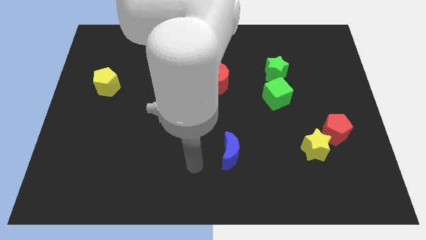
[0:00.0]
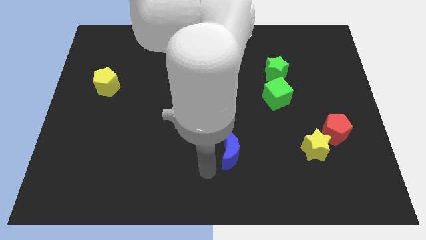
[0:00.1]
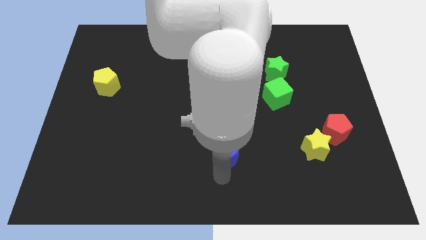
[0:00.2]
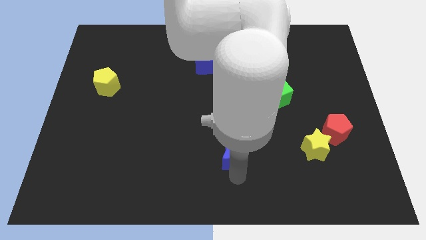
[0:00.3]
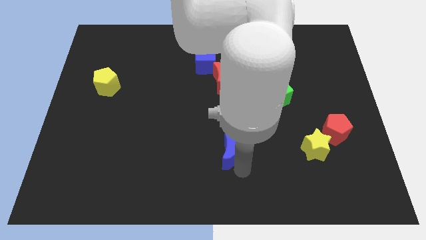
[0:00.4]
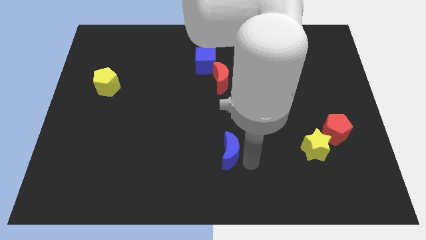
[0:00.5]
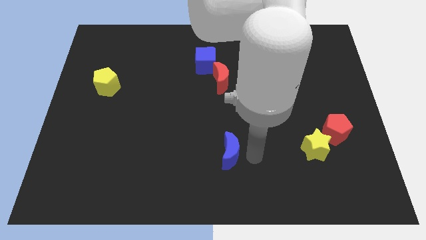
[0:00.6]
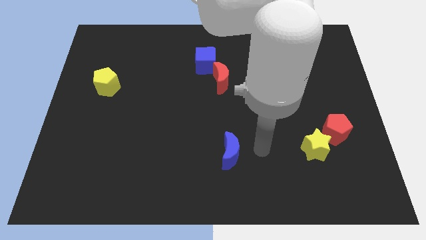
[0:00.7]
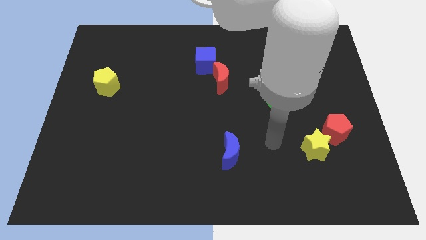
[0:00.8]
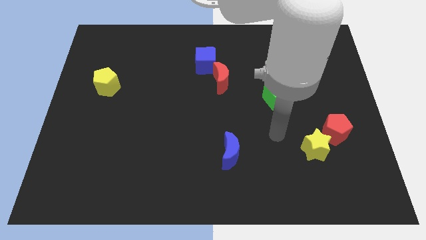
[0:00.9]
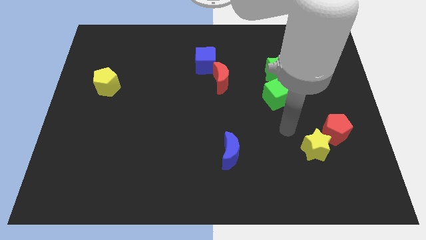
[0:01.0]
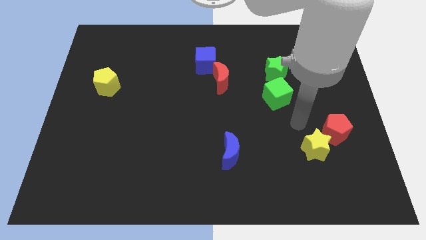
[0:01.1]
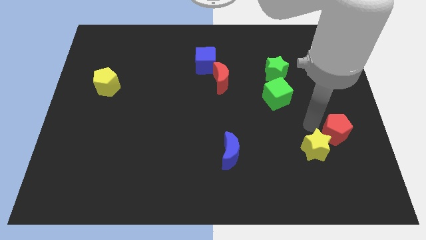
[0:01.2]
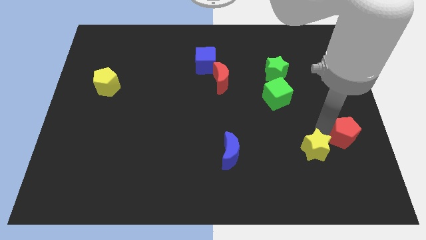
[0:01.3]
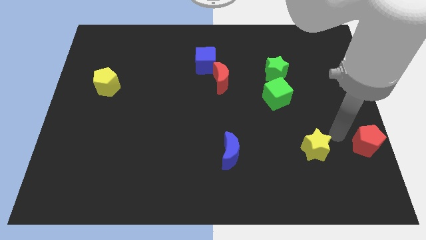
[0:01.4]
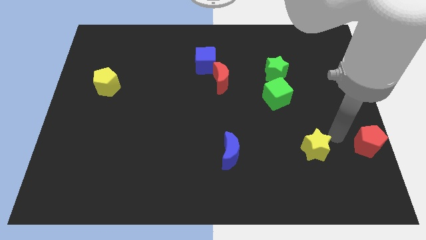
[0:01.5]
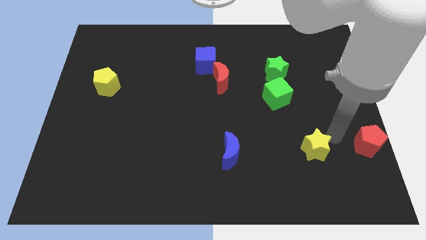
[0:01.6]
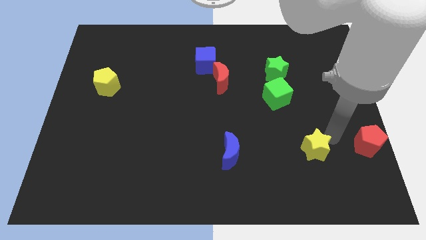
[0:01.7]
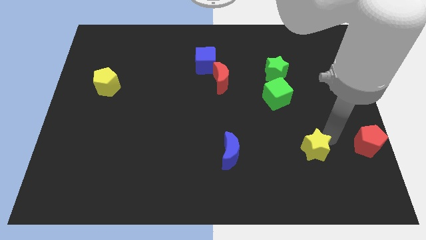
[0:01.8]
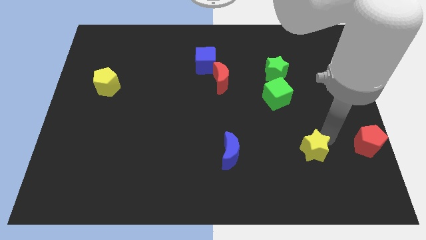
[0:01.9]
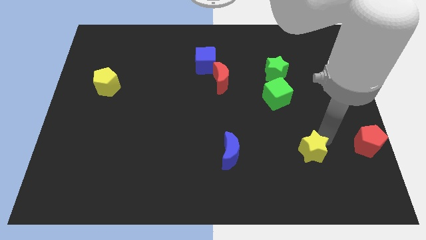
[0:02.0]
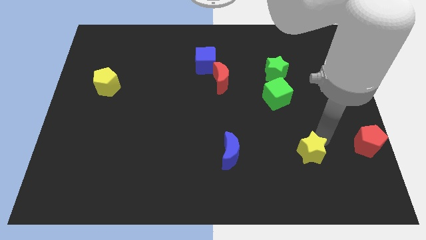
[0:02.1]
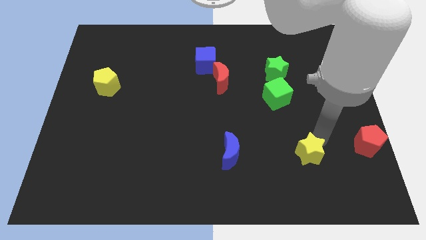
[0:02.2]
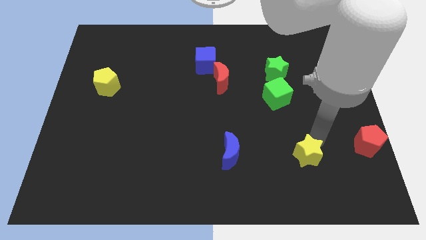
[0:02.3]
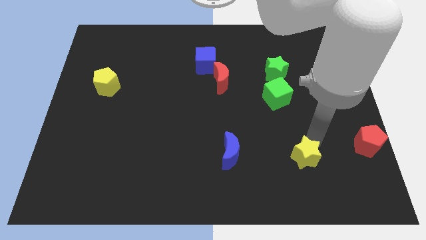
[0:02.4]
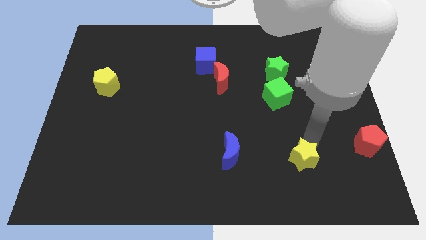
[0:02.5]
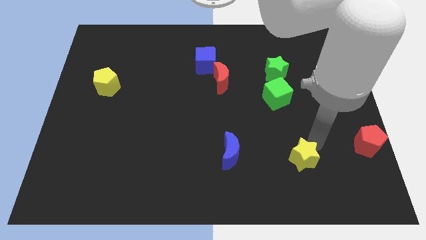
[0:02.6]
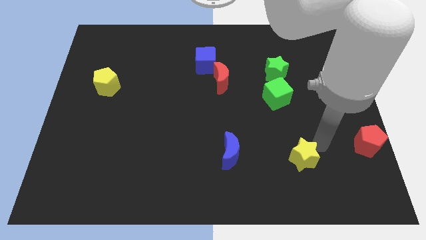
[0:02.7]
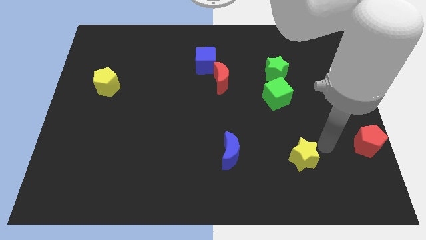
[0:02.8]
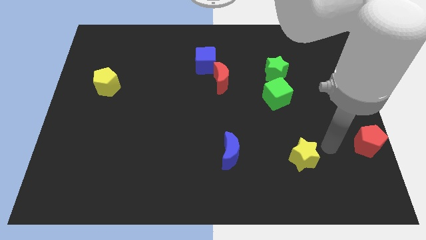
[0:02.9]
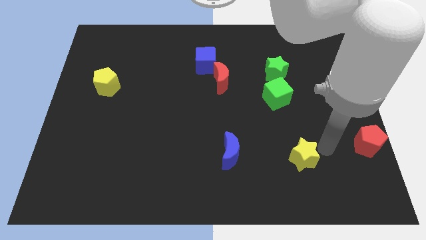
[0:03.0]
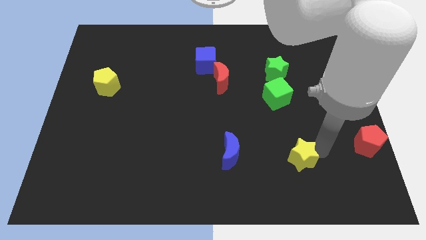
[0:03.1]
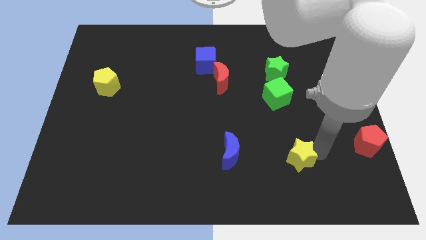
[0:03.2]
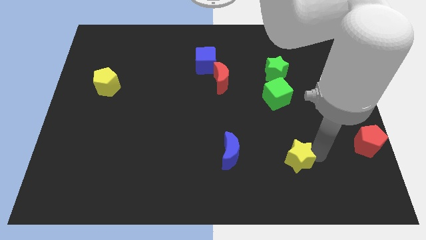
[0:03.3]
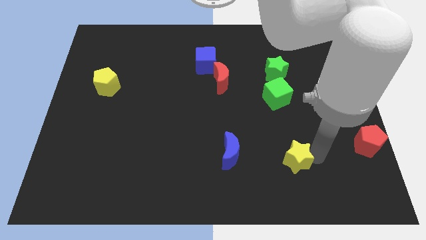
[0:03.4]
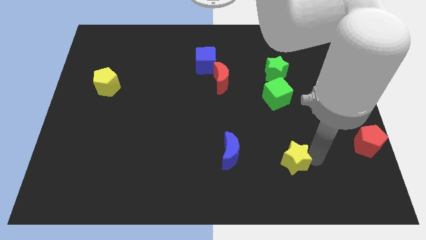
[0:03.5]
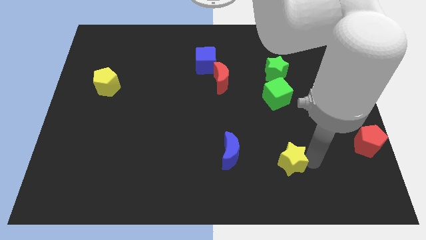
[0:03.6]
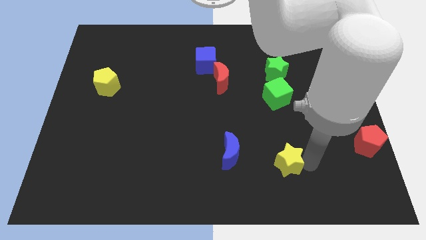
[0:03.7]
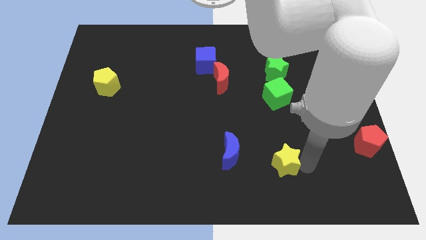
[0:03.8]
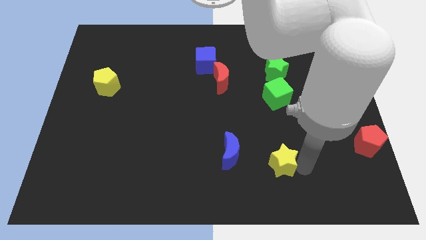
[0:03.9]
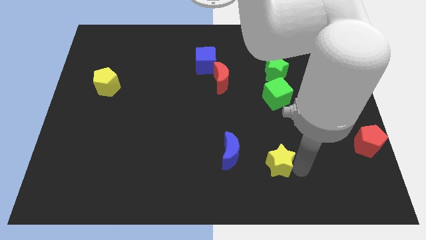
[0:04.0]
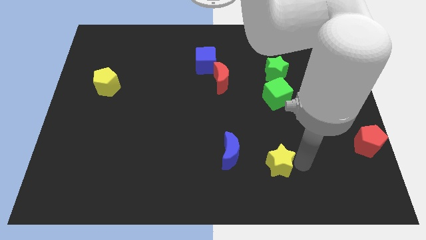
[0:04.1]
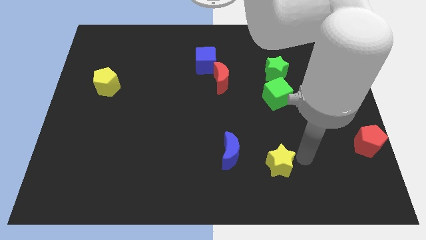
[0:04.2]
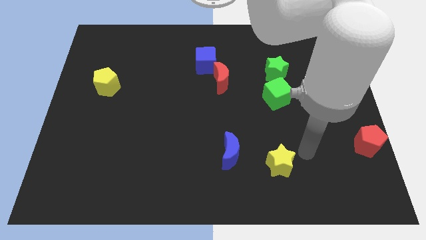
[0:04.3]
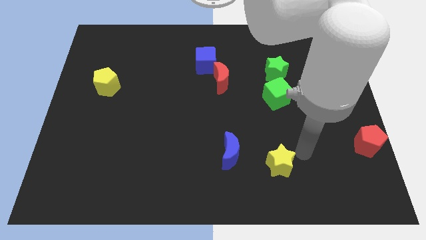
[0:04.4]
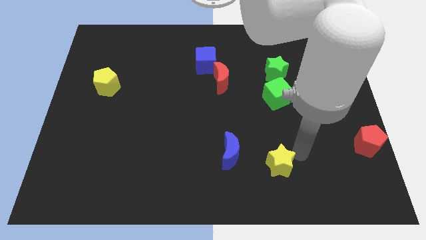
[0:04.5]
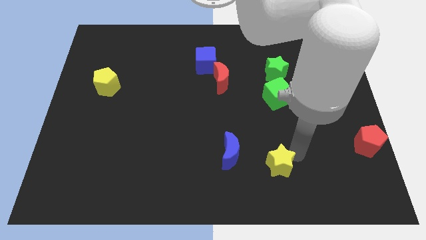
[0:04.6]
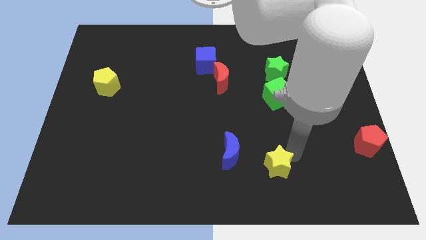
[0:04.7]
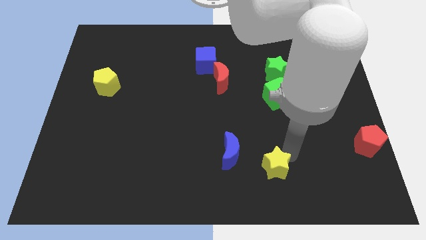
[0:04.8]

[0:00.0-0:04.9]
move the yellow star diagonally down and to the right of the blue moon

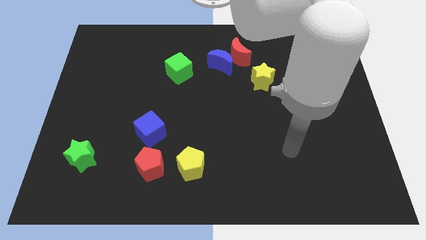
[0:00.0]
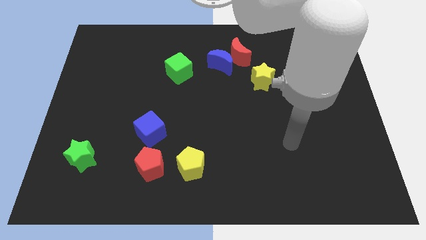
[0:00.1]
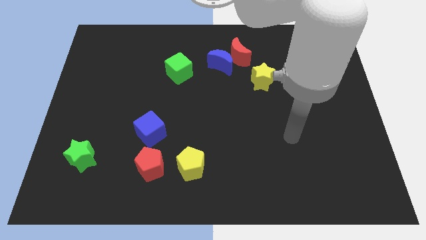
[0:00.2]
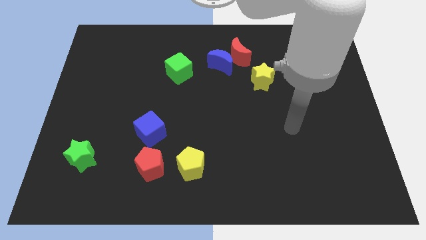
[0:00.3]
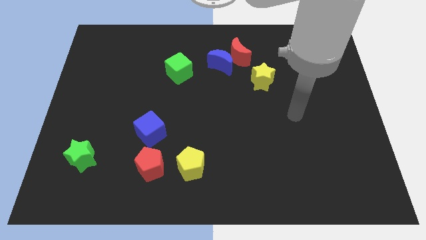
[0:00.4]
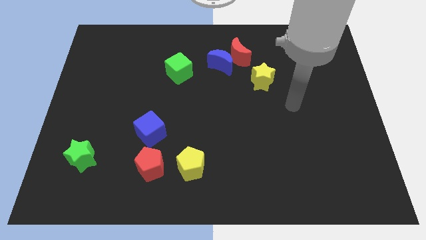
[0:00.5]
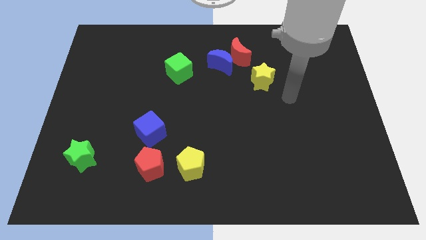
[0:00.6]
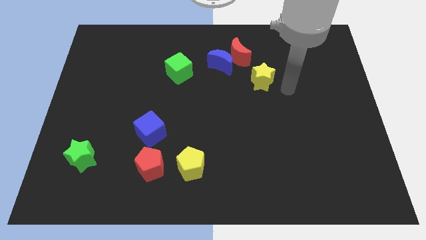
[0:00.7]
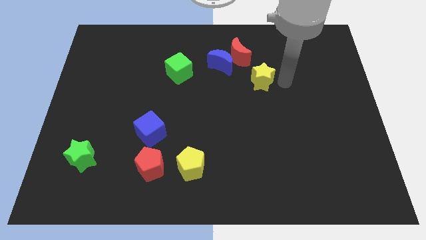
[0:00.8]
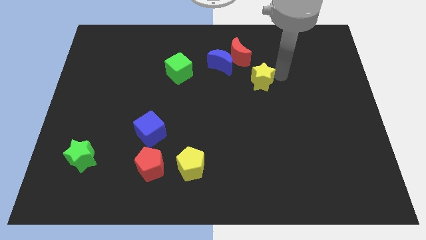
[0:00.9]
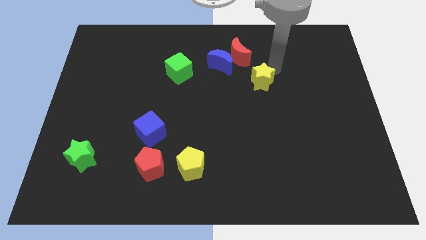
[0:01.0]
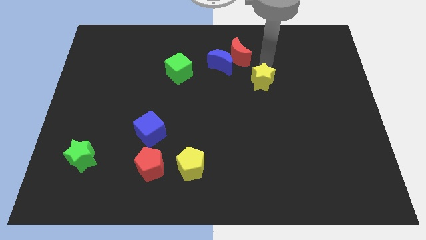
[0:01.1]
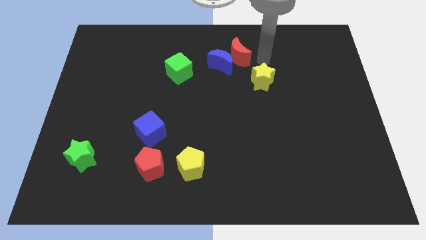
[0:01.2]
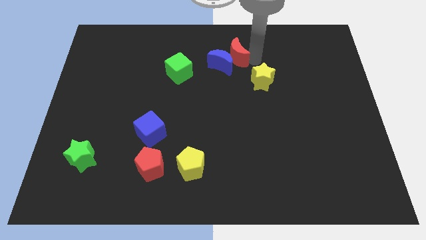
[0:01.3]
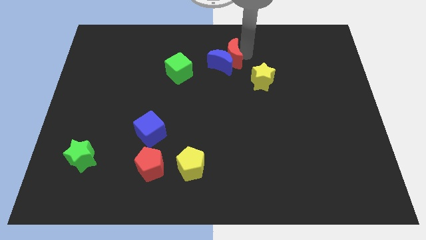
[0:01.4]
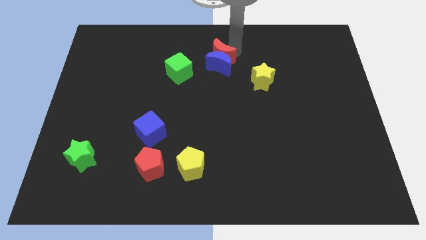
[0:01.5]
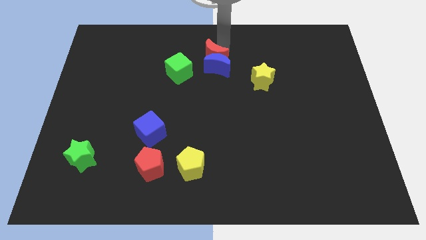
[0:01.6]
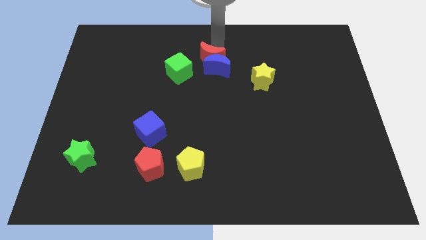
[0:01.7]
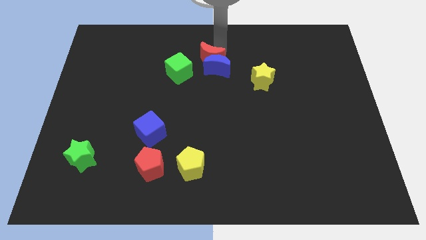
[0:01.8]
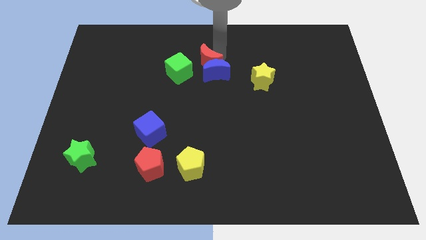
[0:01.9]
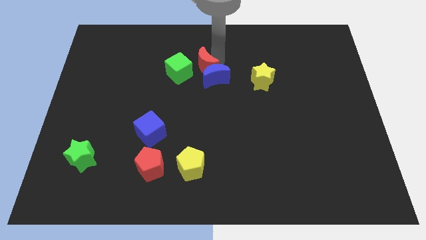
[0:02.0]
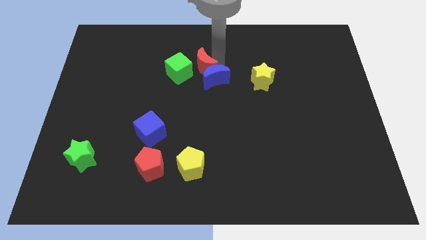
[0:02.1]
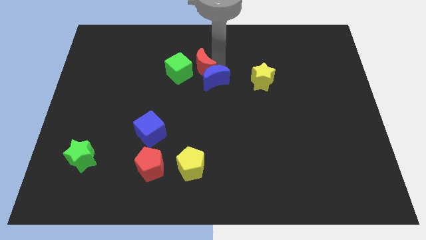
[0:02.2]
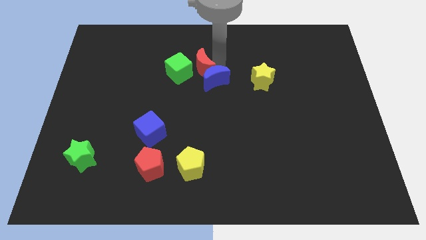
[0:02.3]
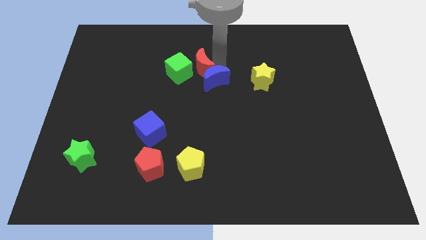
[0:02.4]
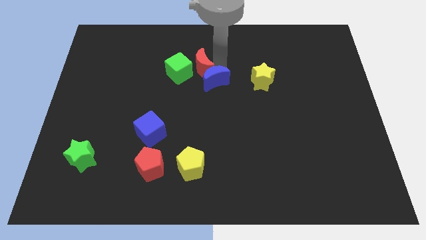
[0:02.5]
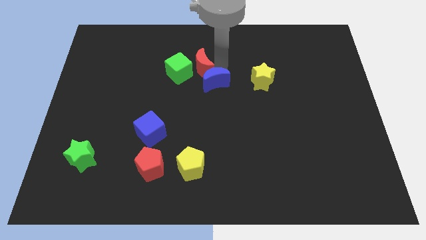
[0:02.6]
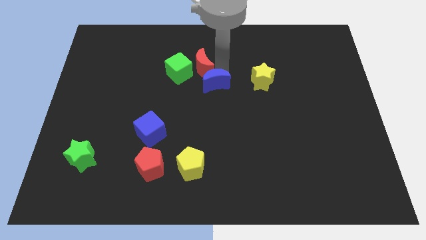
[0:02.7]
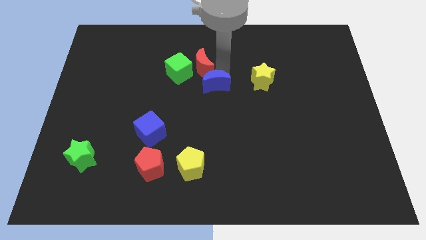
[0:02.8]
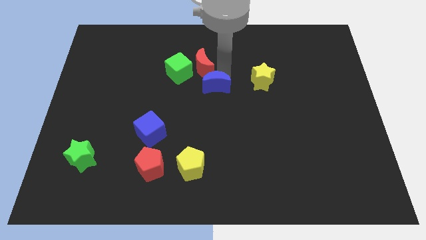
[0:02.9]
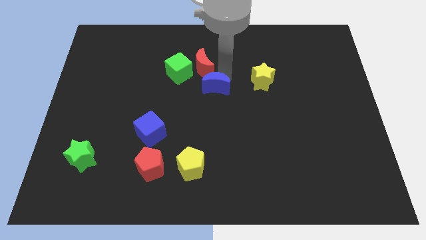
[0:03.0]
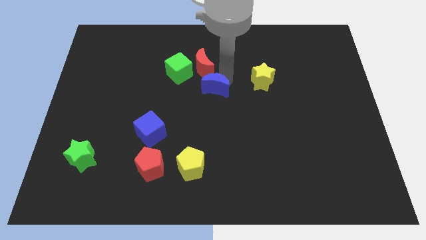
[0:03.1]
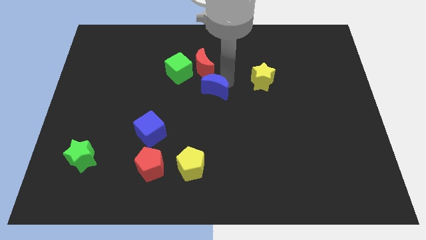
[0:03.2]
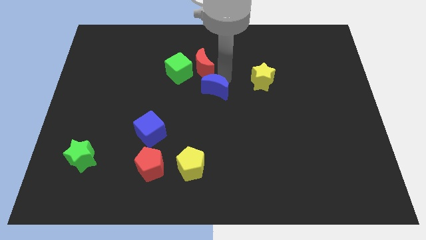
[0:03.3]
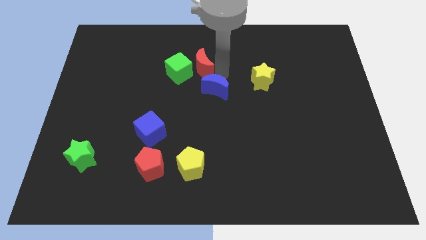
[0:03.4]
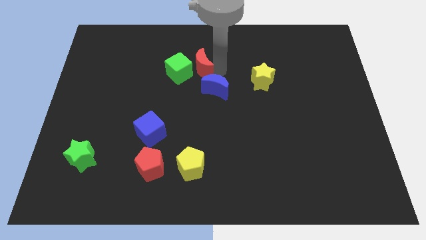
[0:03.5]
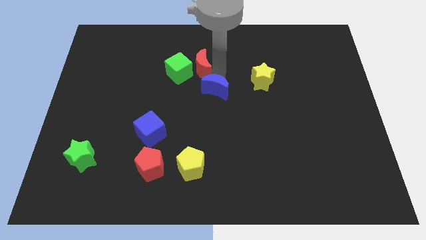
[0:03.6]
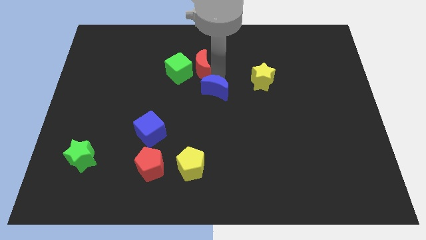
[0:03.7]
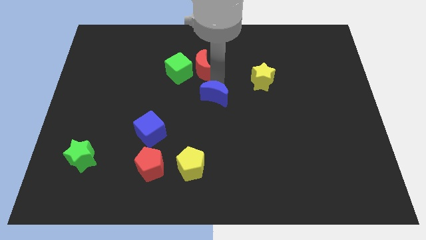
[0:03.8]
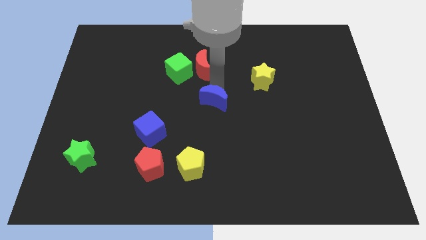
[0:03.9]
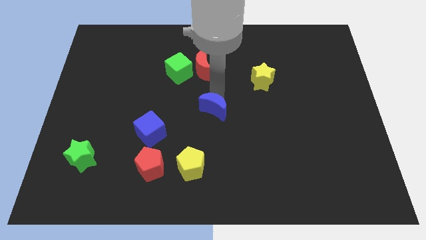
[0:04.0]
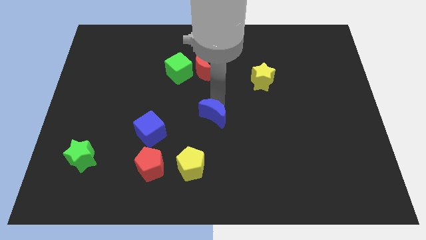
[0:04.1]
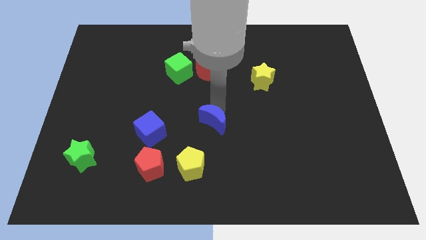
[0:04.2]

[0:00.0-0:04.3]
slide the blue moon just right of the blue cube
